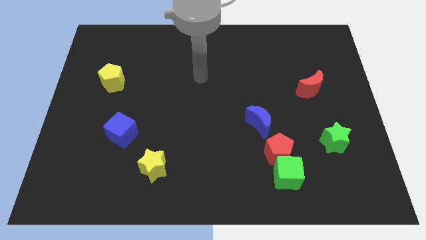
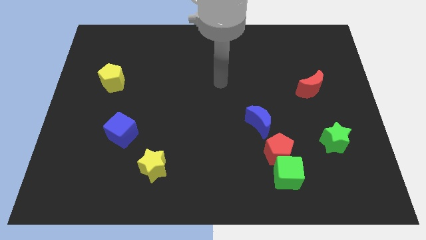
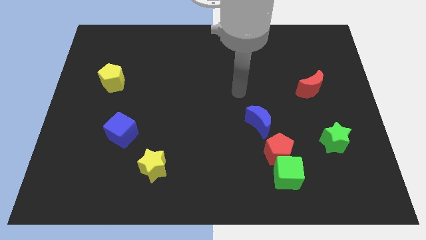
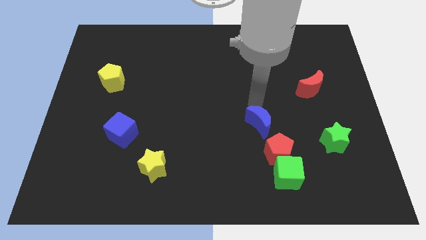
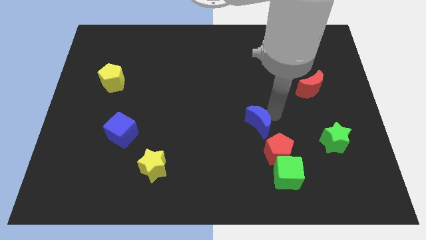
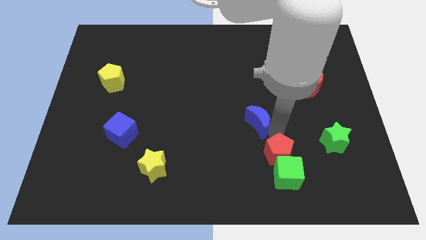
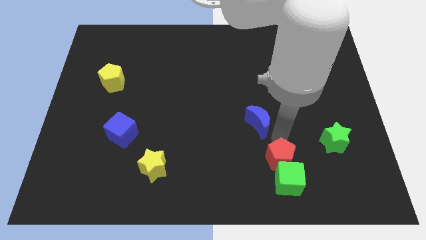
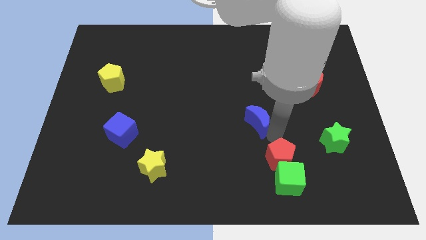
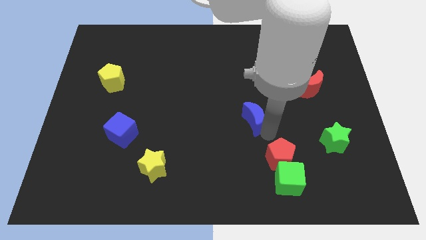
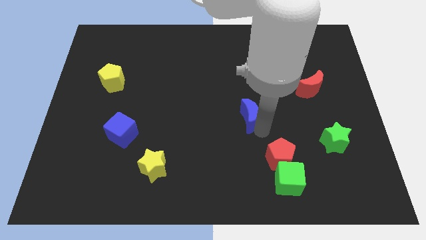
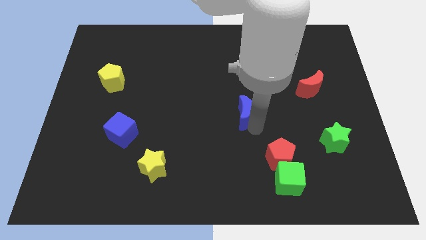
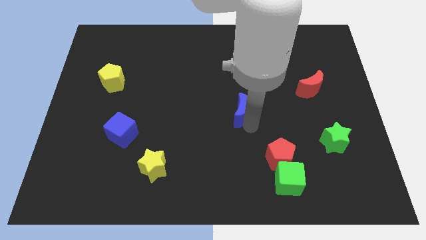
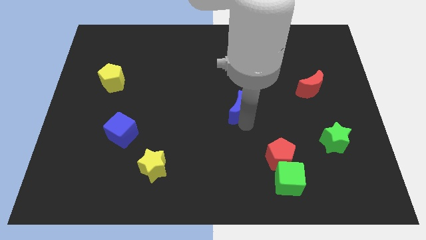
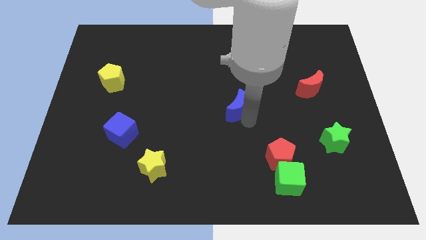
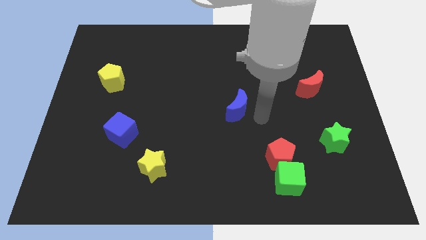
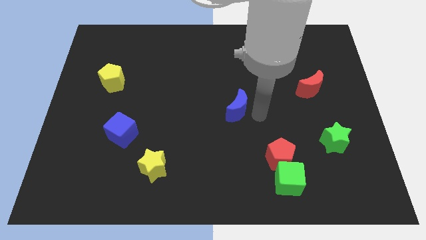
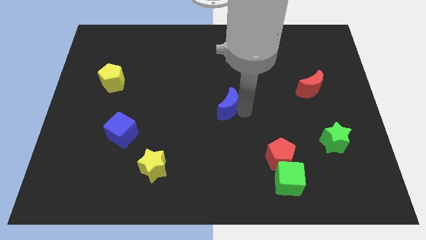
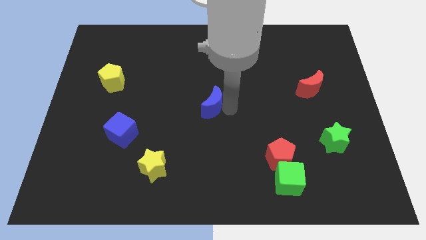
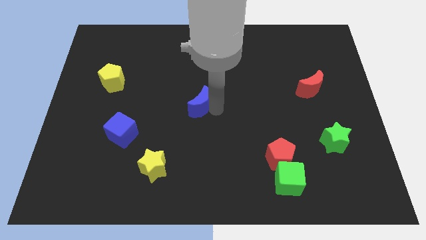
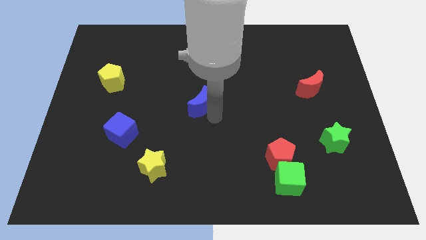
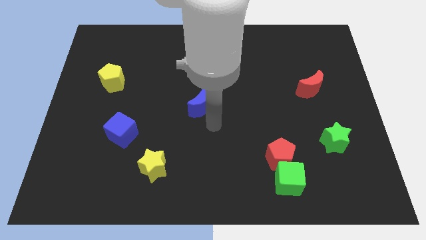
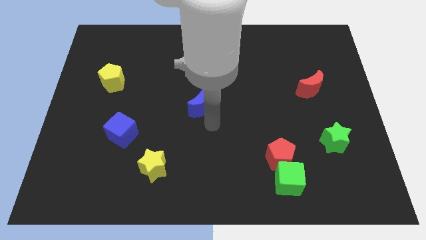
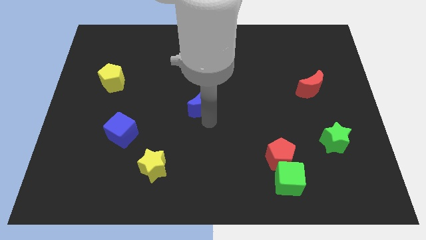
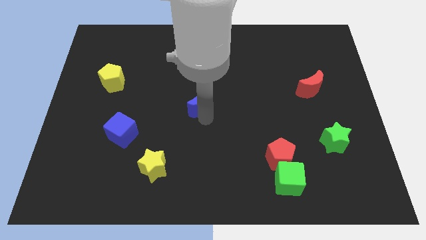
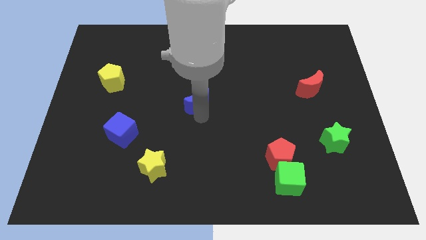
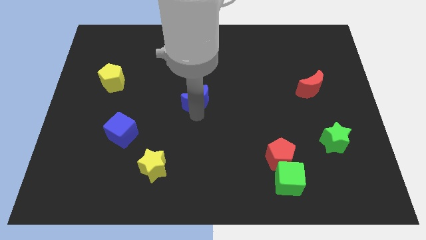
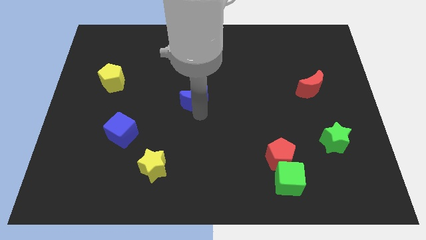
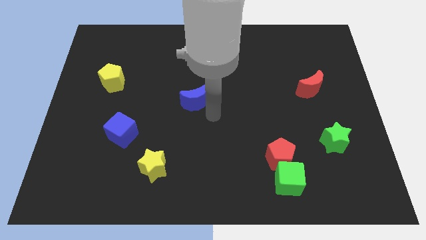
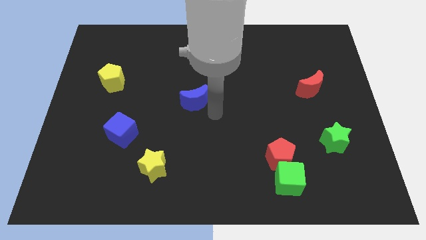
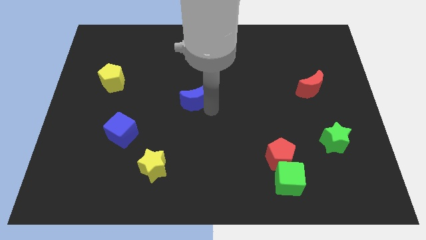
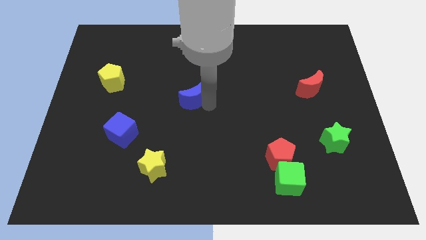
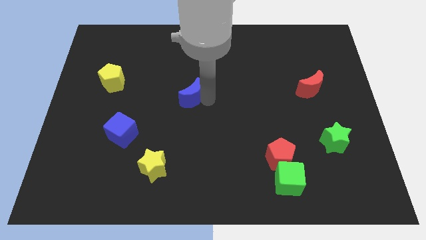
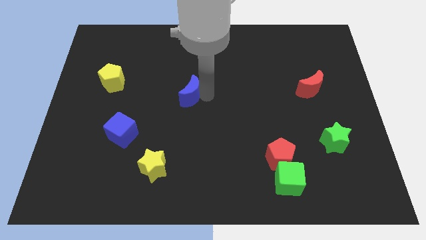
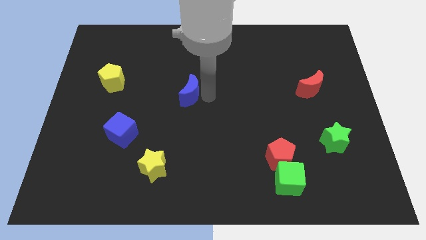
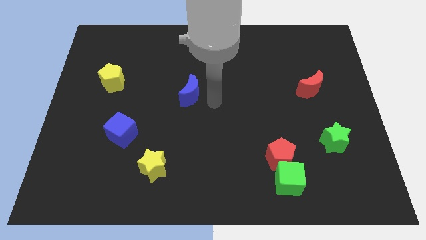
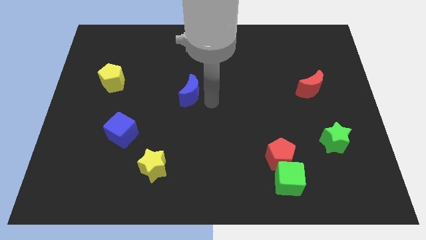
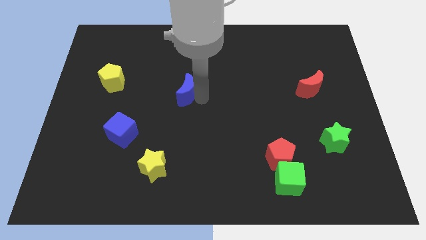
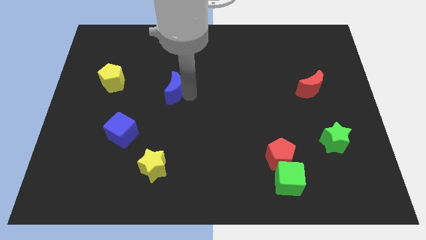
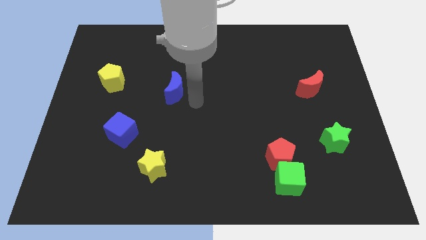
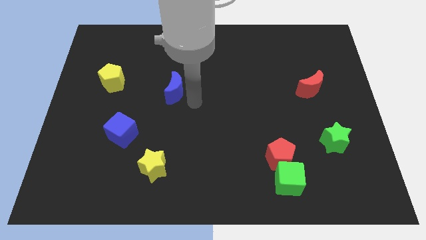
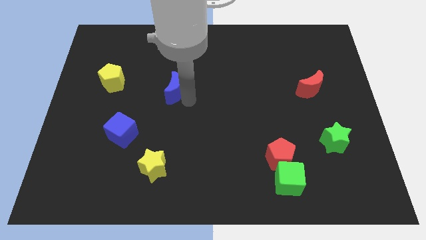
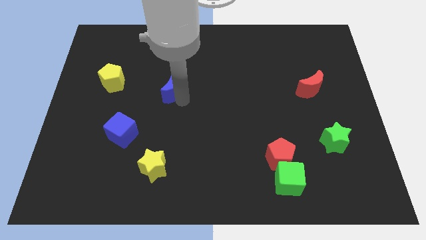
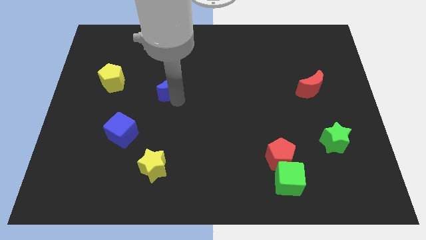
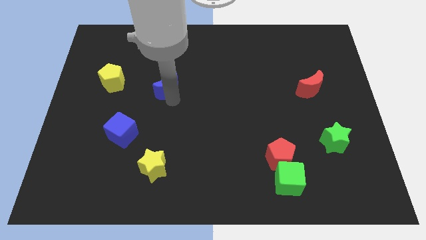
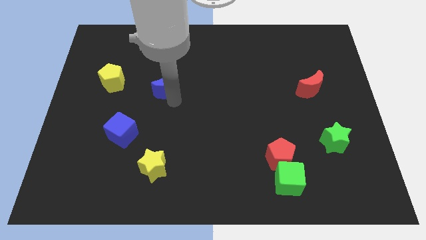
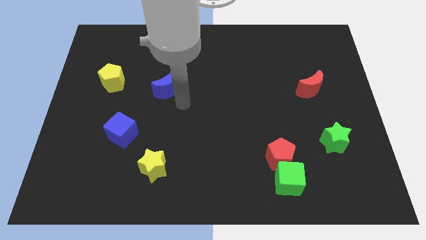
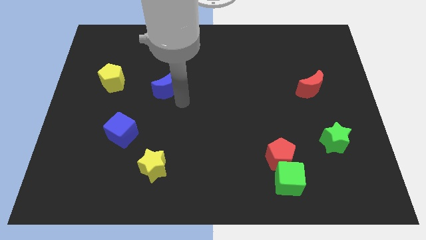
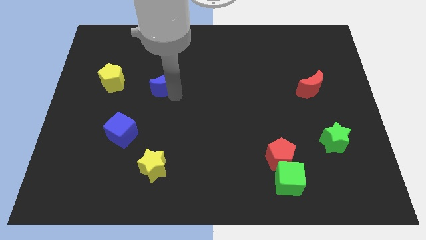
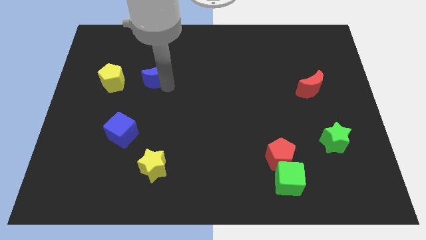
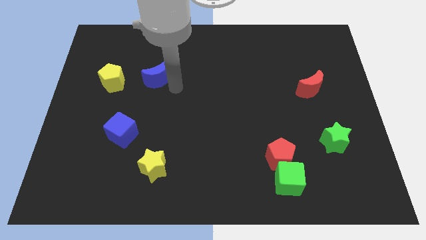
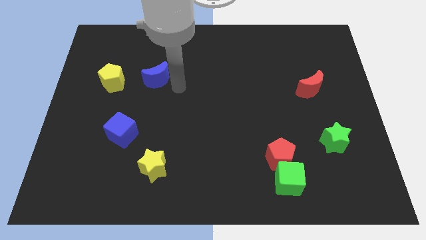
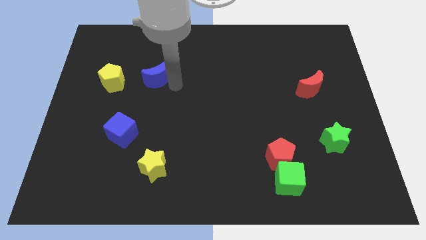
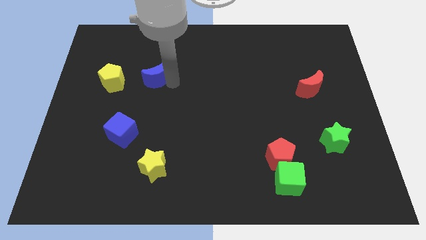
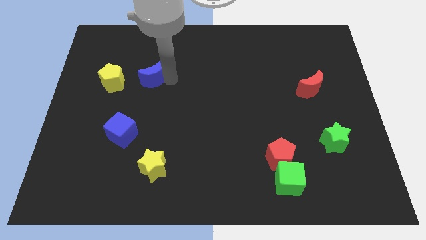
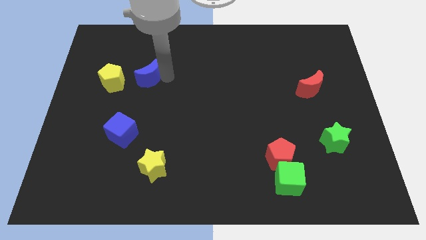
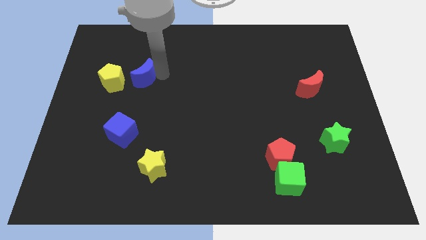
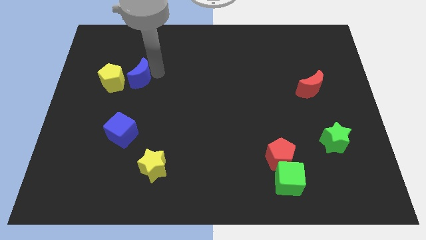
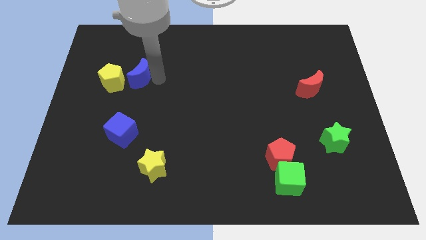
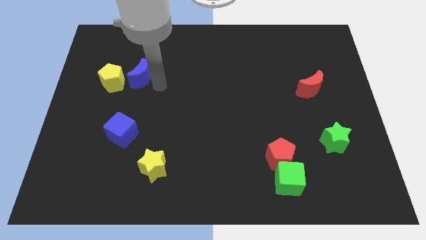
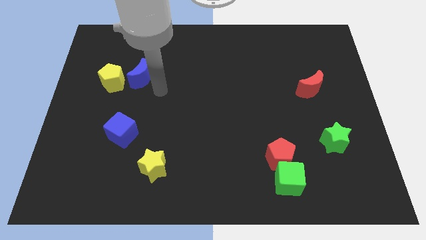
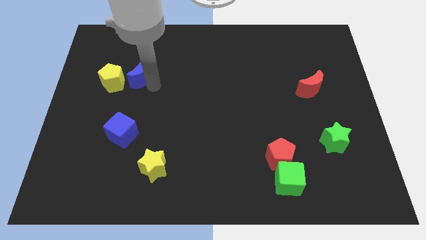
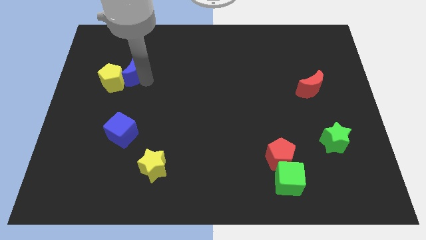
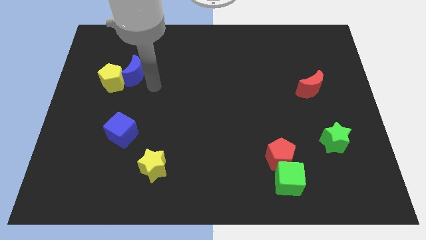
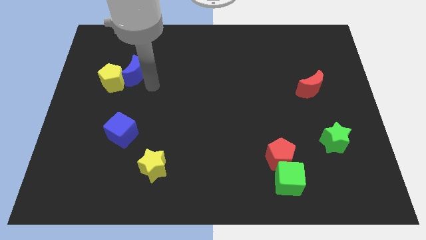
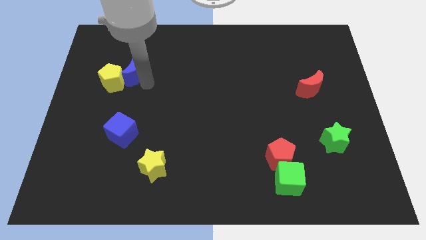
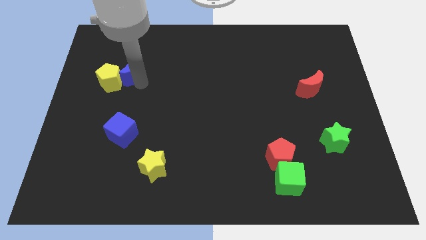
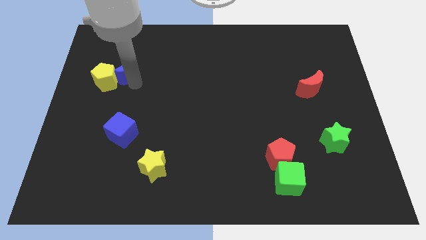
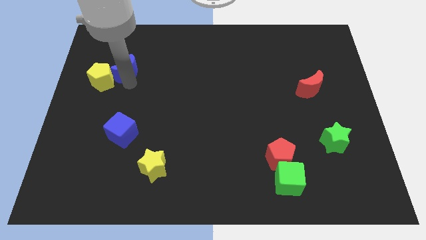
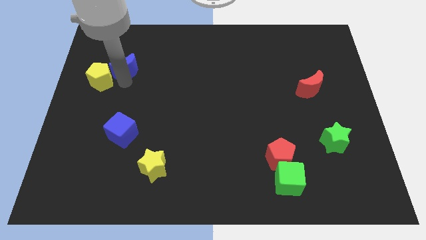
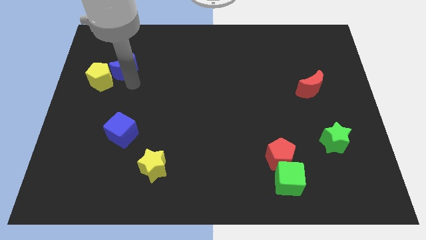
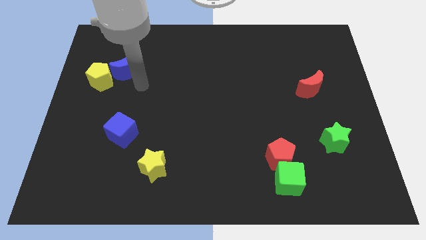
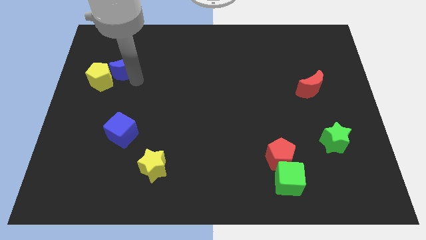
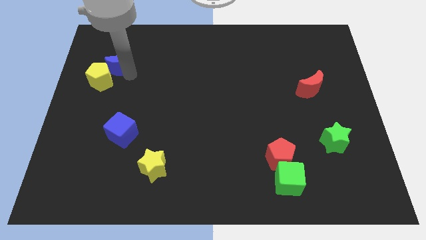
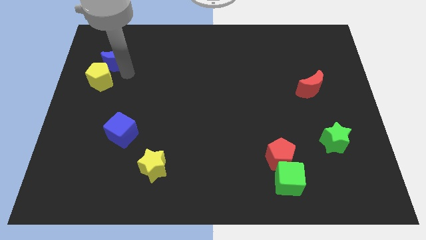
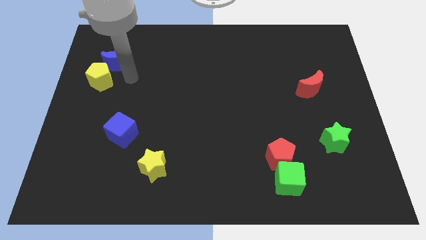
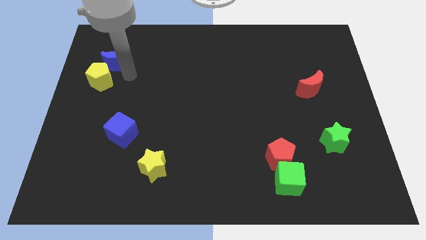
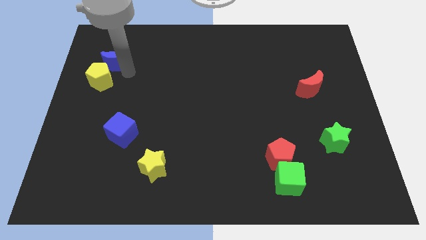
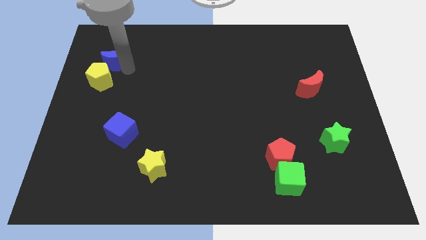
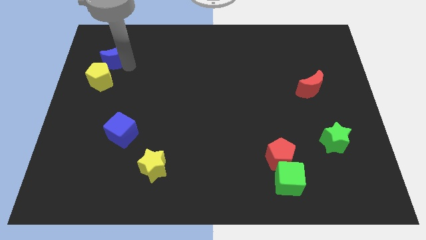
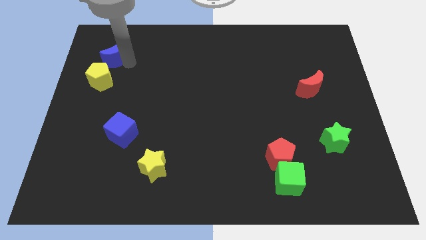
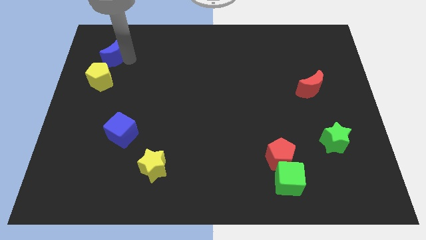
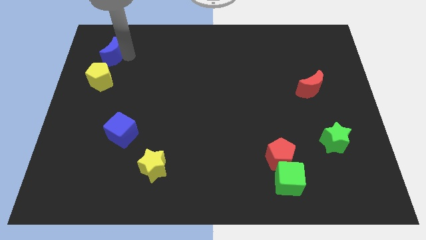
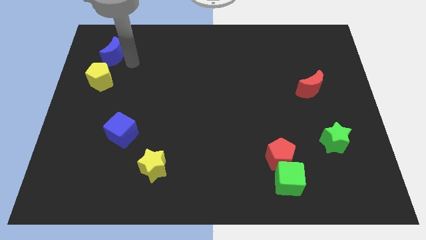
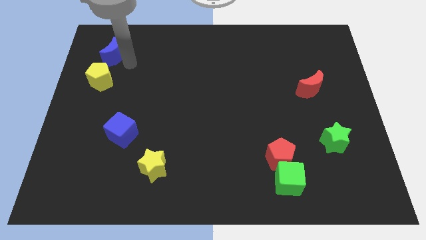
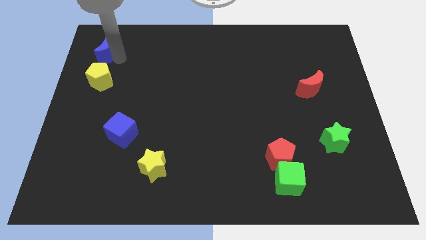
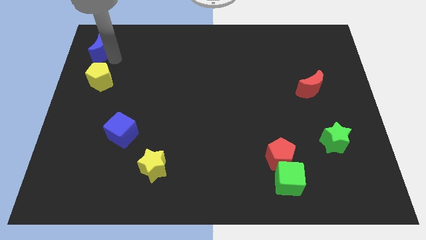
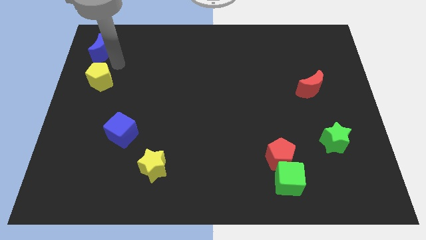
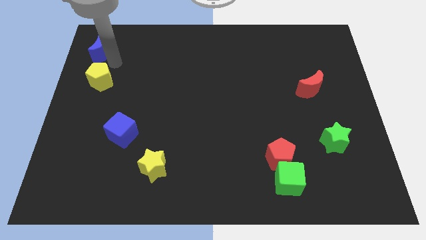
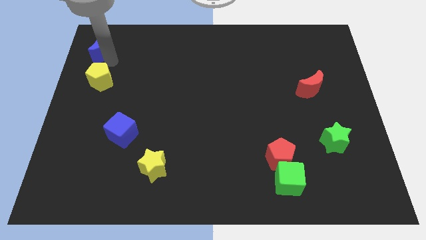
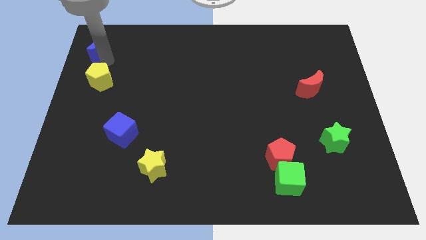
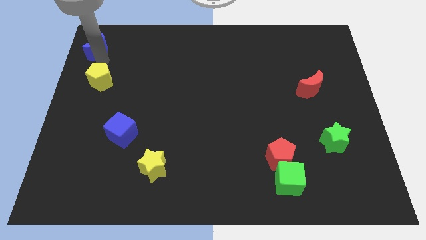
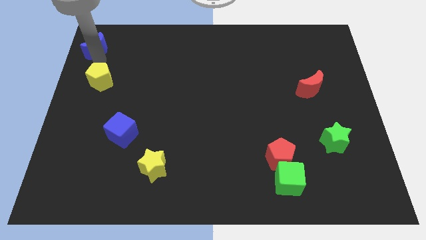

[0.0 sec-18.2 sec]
put the blue moon to the top left
